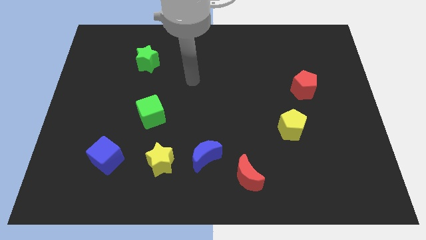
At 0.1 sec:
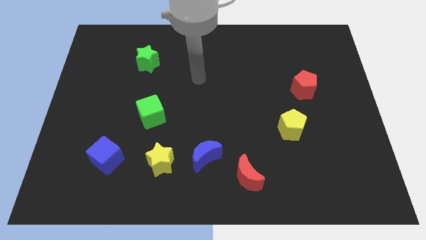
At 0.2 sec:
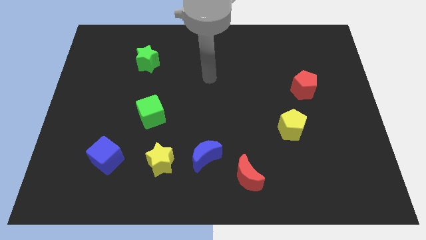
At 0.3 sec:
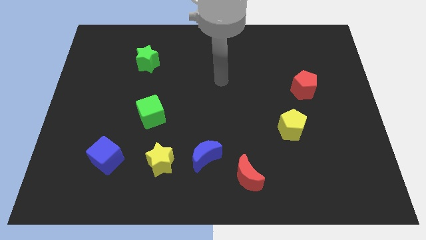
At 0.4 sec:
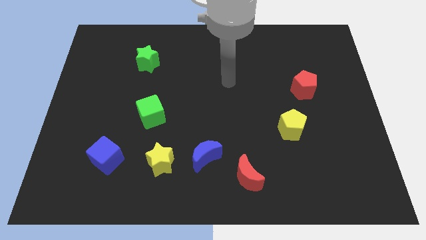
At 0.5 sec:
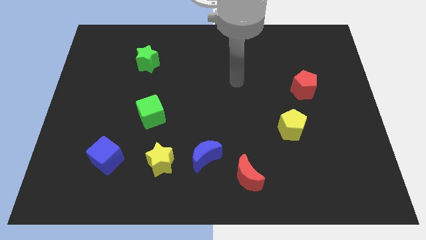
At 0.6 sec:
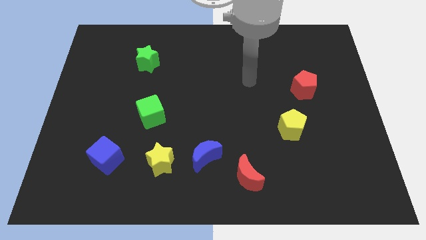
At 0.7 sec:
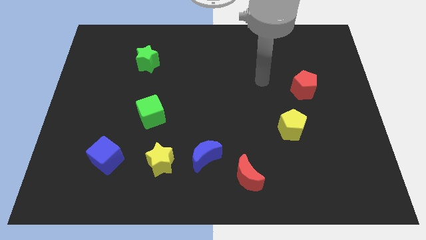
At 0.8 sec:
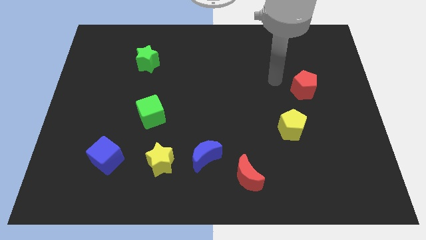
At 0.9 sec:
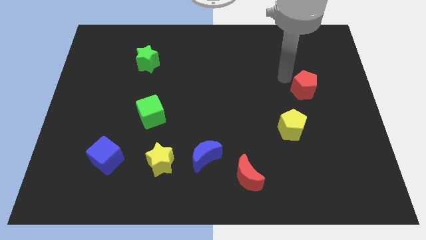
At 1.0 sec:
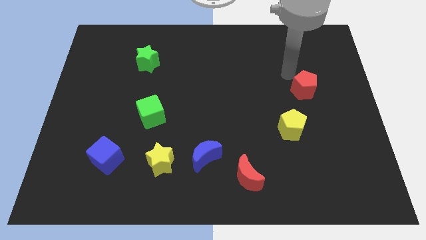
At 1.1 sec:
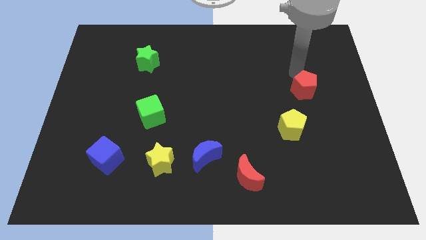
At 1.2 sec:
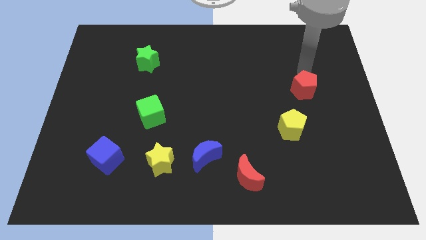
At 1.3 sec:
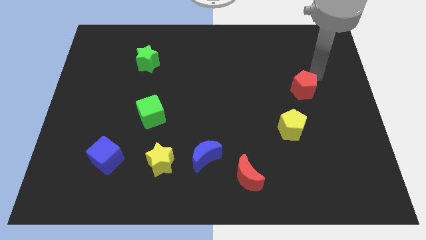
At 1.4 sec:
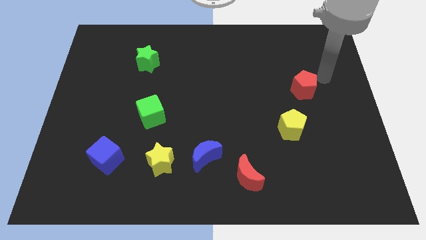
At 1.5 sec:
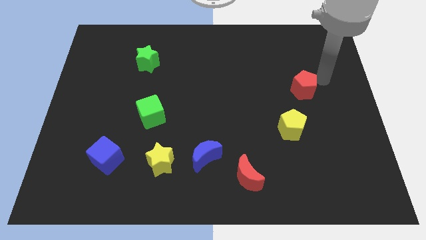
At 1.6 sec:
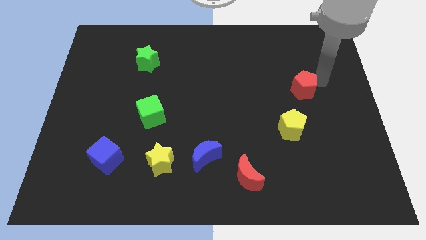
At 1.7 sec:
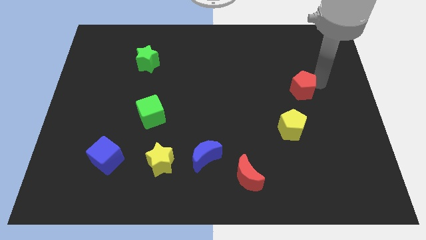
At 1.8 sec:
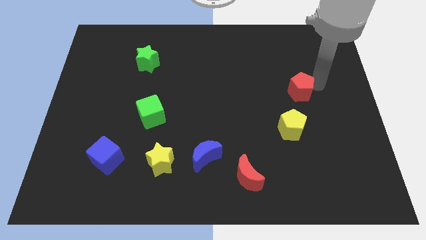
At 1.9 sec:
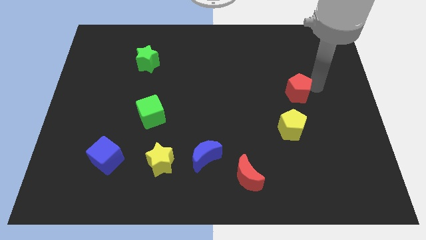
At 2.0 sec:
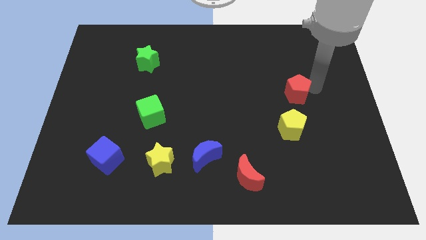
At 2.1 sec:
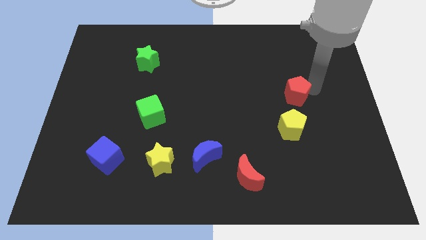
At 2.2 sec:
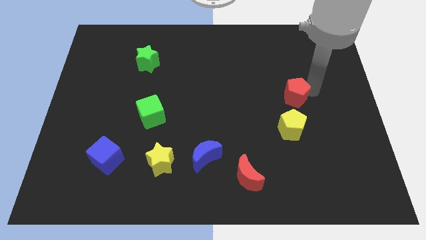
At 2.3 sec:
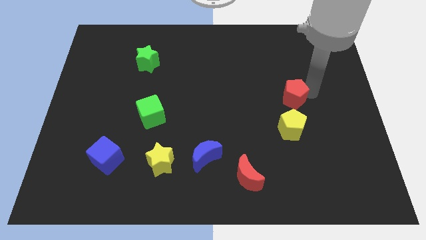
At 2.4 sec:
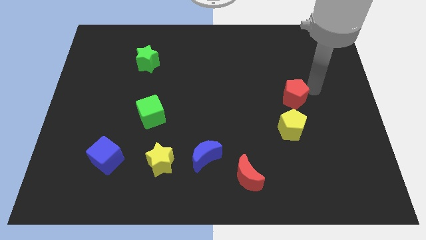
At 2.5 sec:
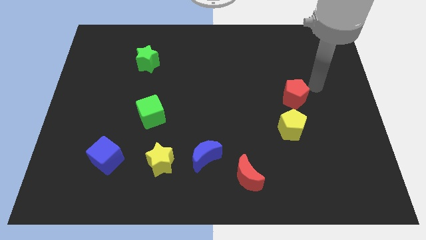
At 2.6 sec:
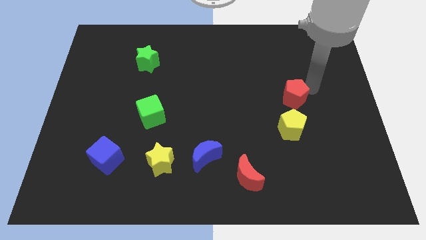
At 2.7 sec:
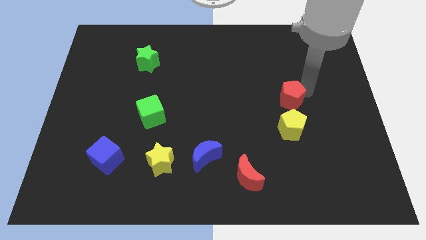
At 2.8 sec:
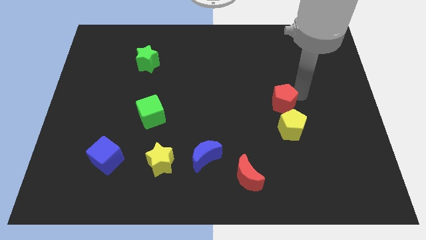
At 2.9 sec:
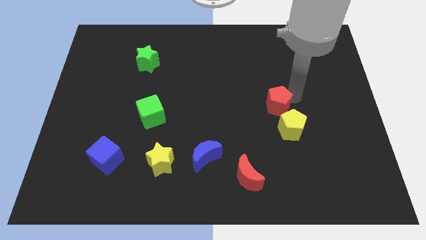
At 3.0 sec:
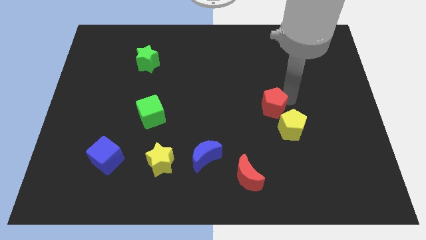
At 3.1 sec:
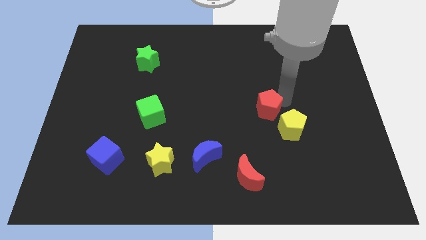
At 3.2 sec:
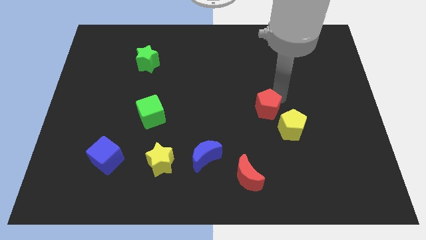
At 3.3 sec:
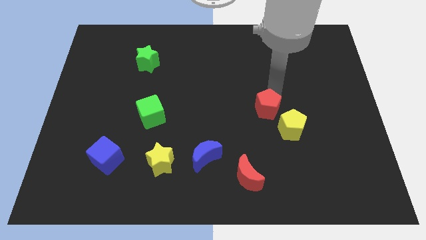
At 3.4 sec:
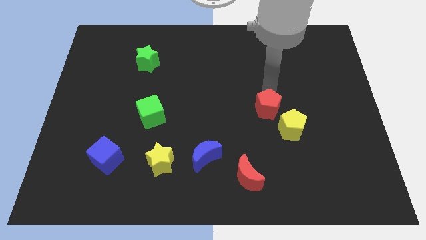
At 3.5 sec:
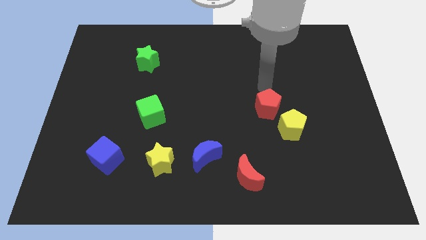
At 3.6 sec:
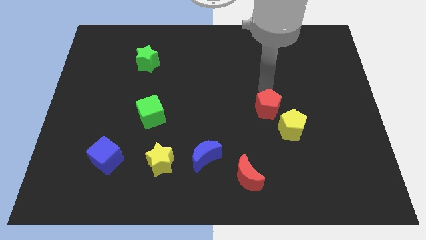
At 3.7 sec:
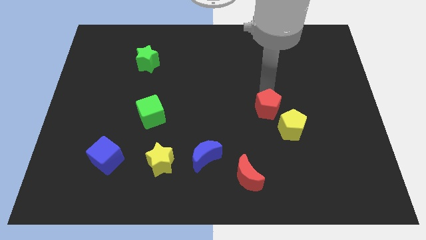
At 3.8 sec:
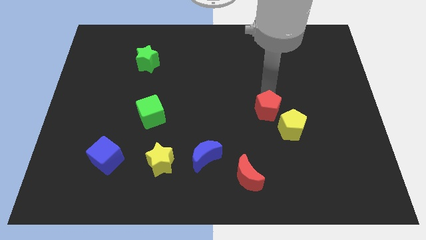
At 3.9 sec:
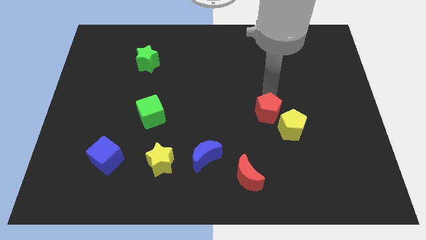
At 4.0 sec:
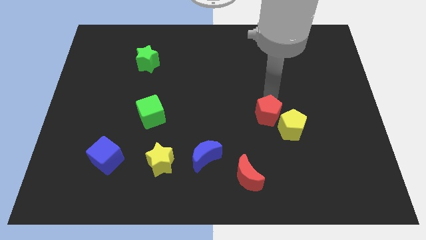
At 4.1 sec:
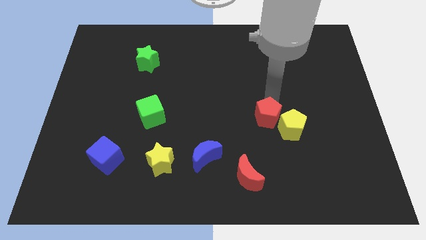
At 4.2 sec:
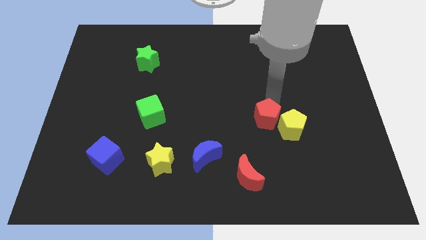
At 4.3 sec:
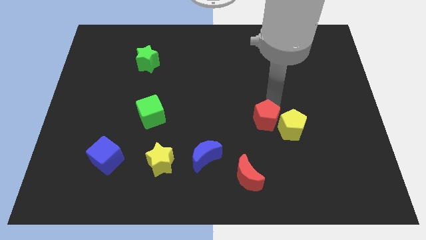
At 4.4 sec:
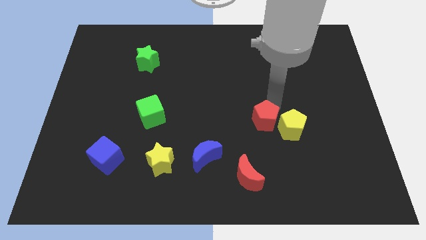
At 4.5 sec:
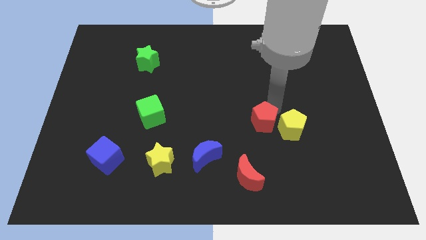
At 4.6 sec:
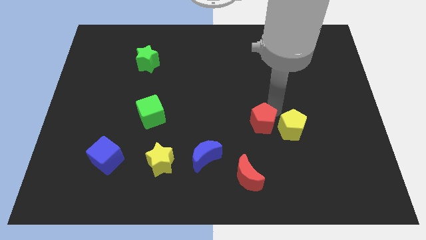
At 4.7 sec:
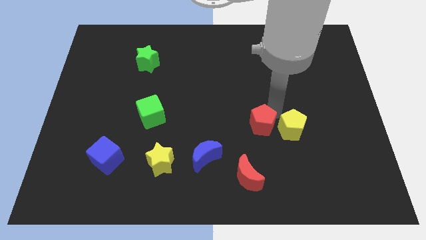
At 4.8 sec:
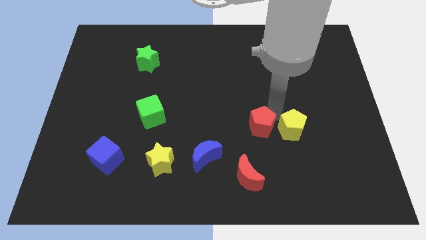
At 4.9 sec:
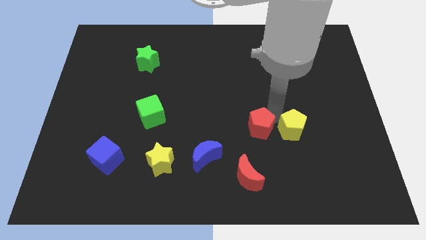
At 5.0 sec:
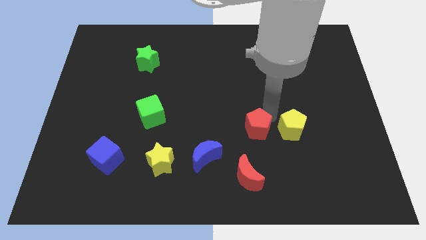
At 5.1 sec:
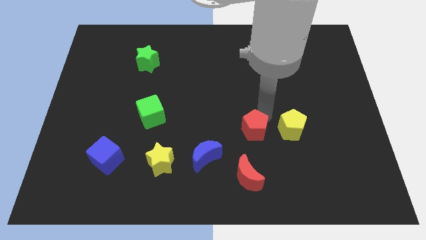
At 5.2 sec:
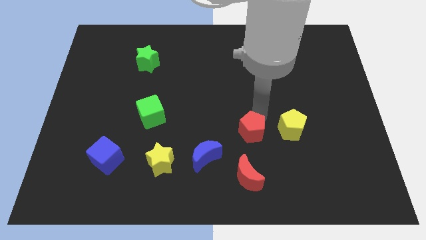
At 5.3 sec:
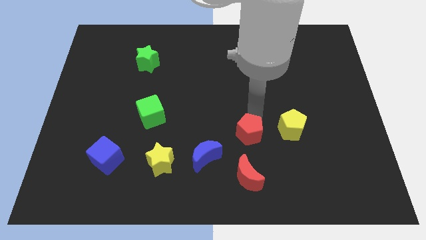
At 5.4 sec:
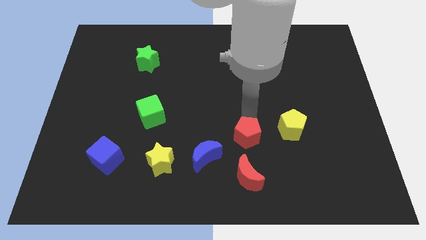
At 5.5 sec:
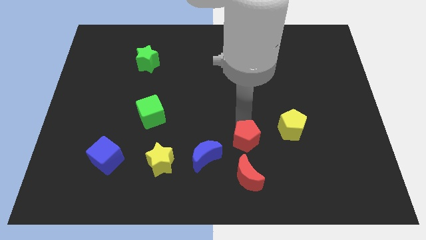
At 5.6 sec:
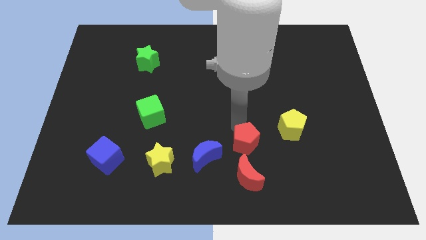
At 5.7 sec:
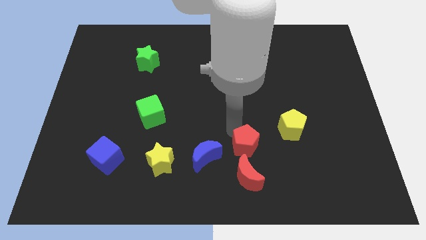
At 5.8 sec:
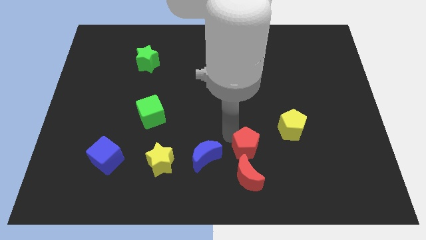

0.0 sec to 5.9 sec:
slide the red pentagon to the bottom left of the yellow pentagon

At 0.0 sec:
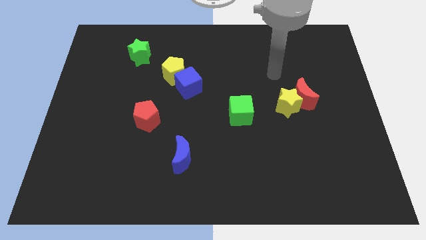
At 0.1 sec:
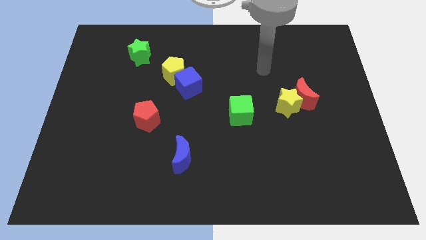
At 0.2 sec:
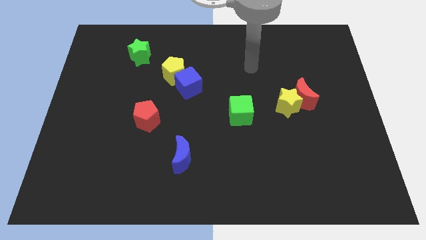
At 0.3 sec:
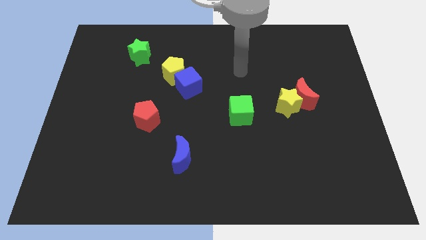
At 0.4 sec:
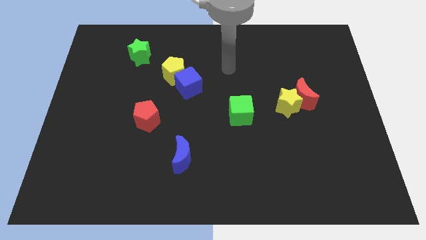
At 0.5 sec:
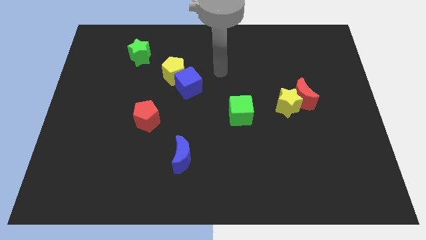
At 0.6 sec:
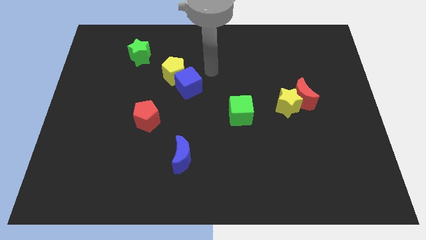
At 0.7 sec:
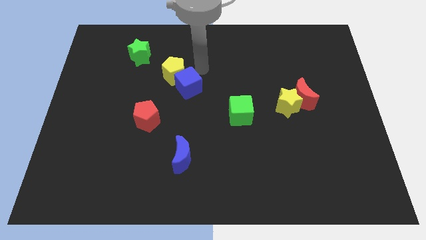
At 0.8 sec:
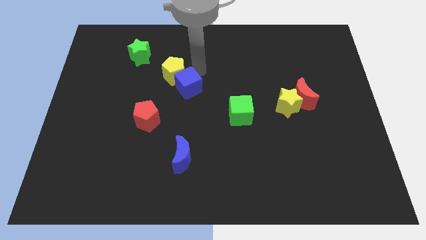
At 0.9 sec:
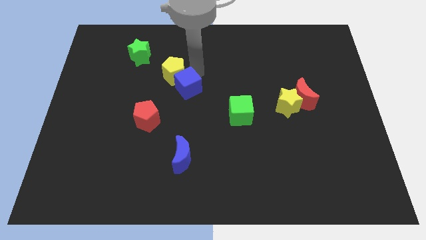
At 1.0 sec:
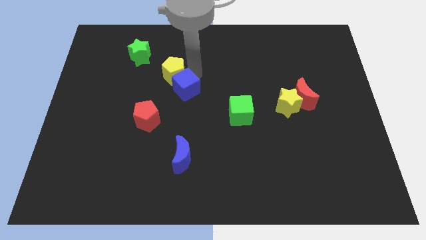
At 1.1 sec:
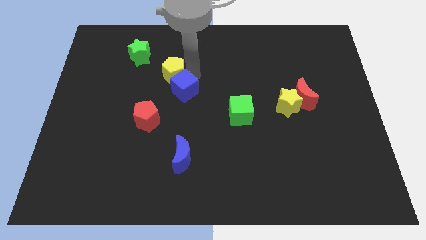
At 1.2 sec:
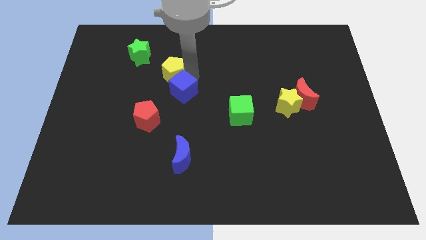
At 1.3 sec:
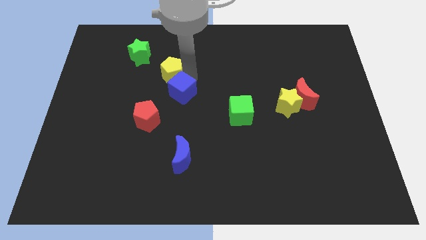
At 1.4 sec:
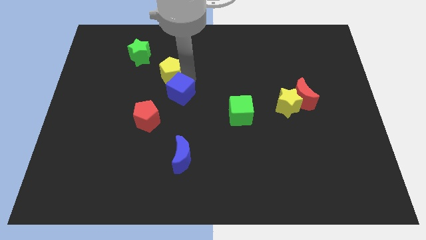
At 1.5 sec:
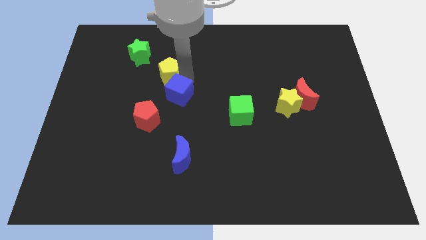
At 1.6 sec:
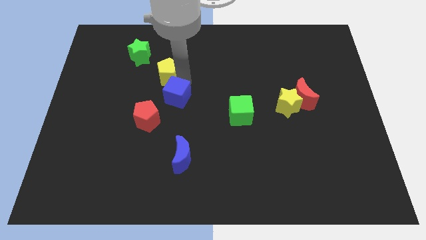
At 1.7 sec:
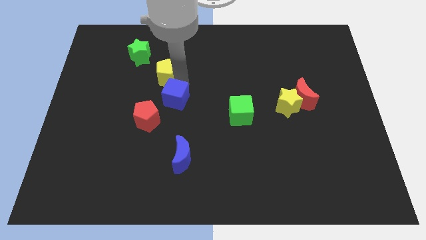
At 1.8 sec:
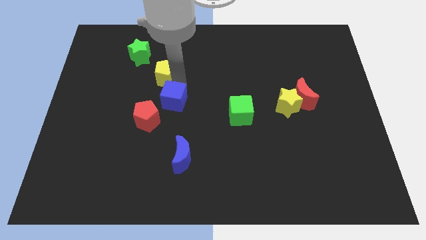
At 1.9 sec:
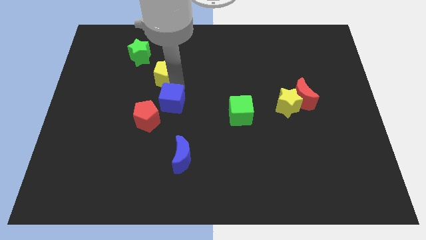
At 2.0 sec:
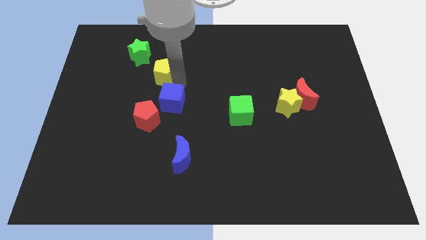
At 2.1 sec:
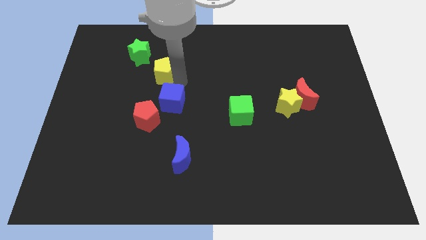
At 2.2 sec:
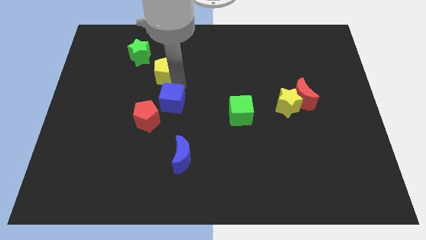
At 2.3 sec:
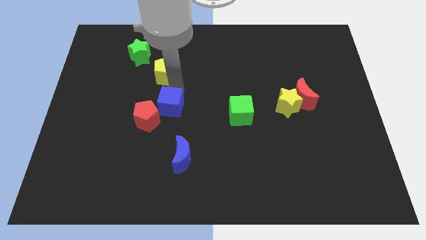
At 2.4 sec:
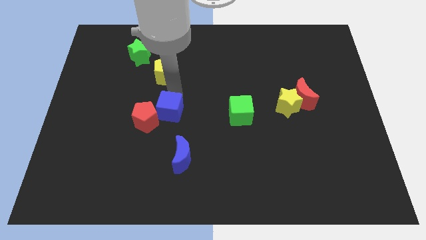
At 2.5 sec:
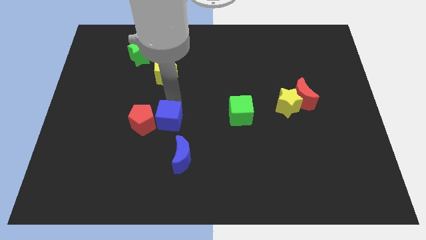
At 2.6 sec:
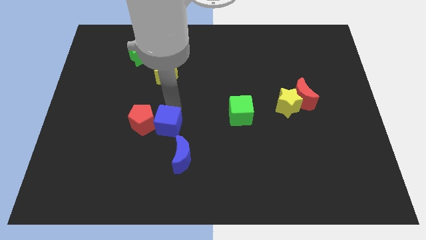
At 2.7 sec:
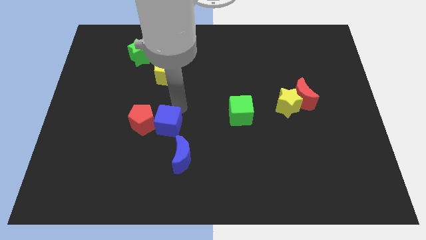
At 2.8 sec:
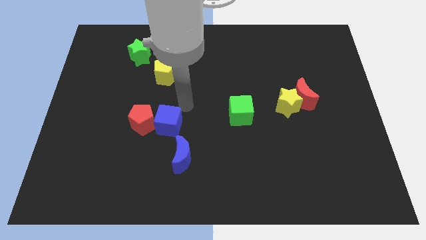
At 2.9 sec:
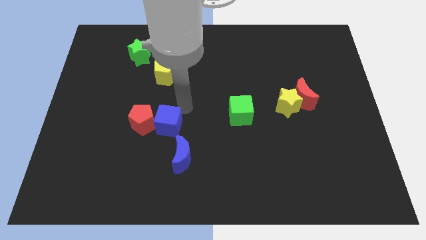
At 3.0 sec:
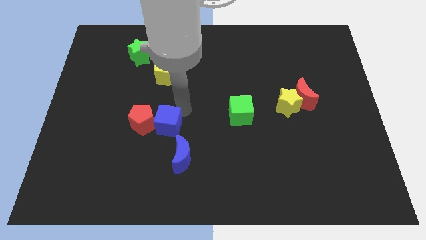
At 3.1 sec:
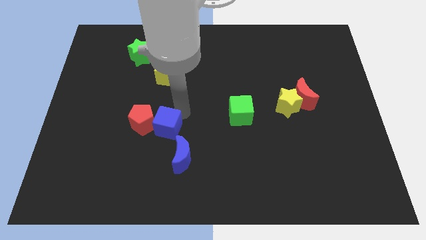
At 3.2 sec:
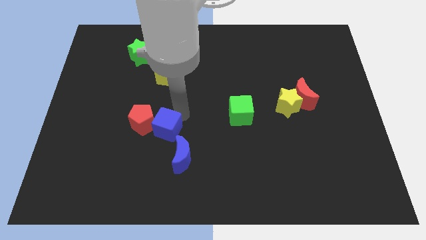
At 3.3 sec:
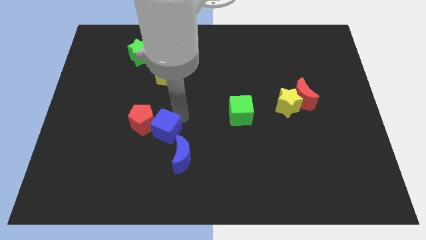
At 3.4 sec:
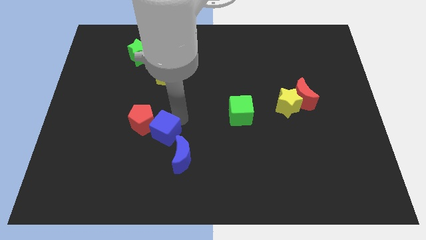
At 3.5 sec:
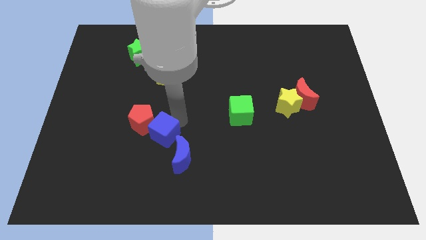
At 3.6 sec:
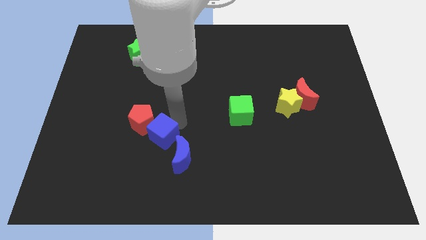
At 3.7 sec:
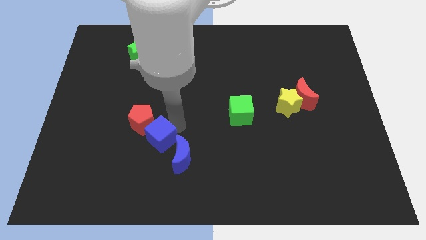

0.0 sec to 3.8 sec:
slide the blue cube below the red pentagon
